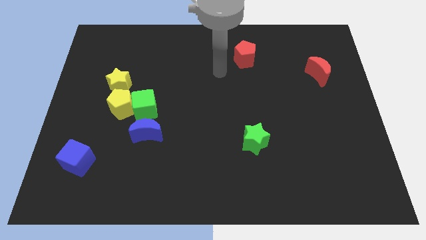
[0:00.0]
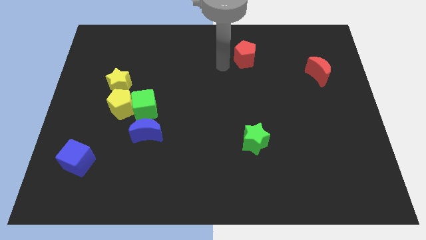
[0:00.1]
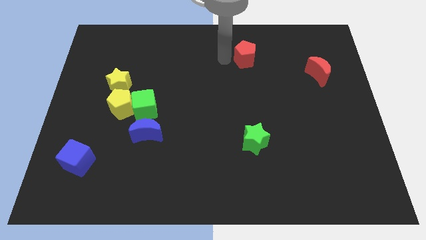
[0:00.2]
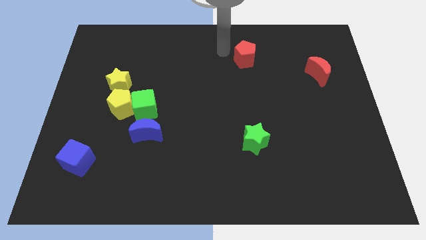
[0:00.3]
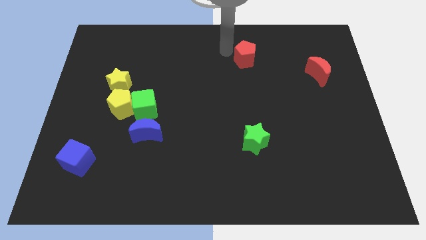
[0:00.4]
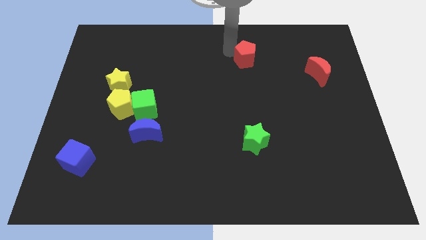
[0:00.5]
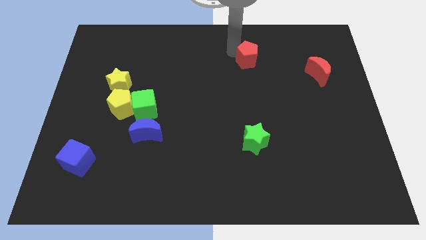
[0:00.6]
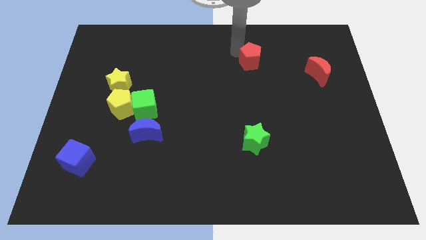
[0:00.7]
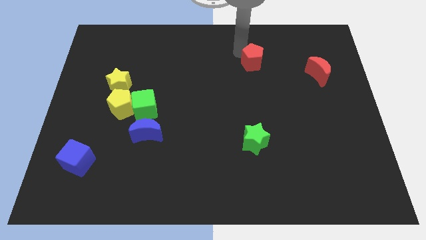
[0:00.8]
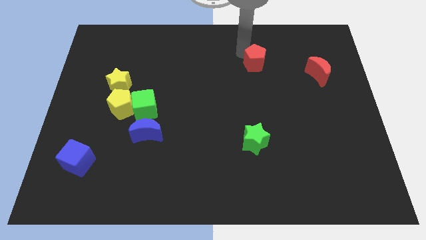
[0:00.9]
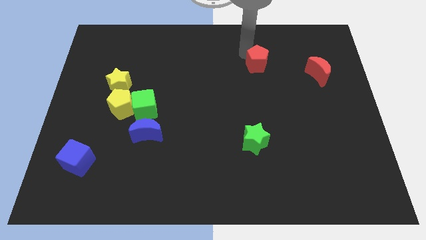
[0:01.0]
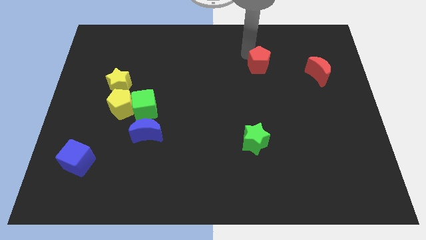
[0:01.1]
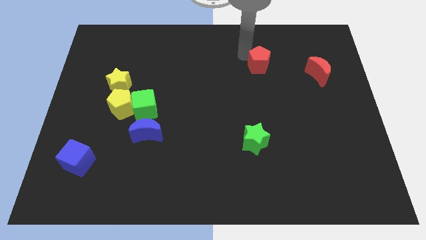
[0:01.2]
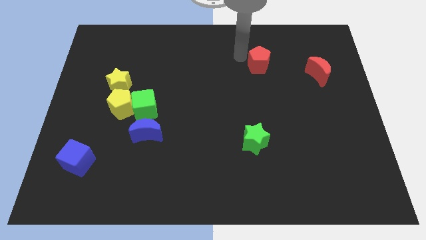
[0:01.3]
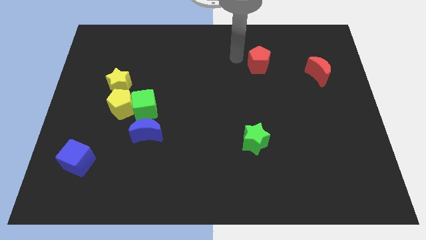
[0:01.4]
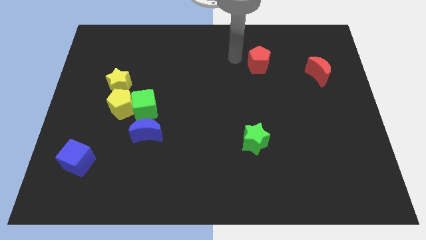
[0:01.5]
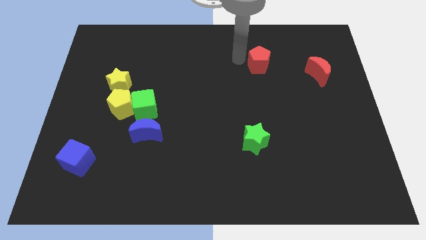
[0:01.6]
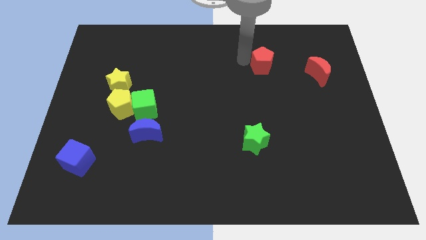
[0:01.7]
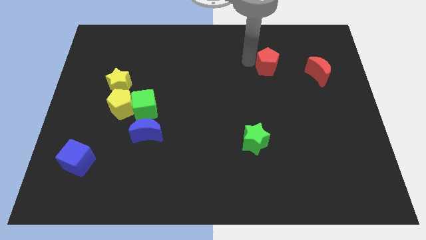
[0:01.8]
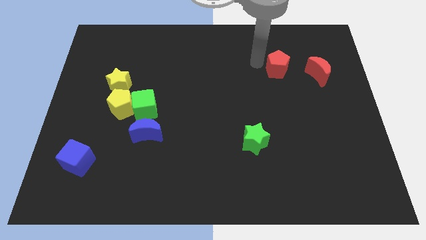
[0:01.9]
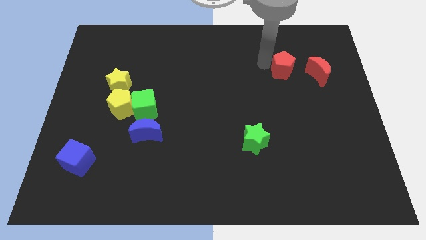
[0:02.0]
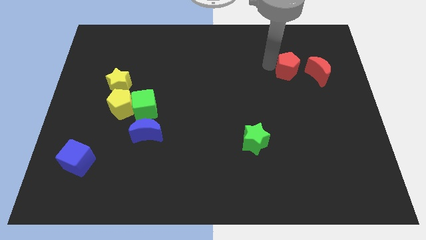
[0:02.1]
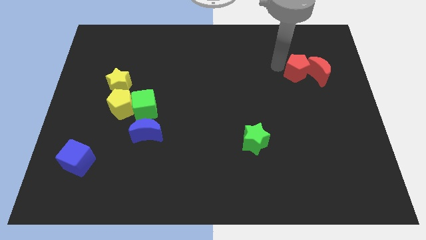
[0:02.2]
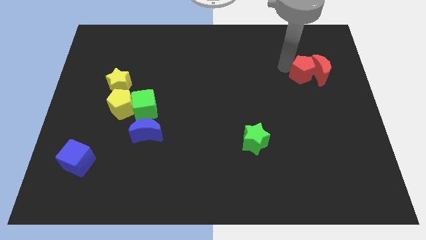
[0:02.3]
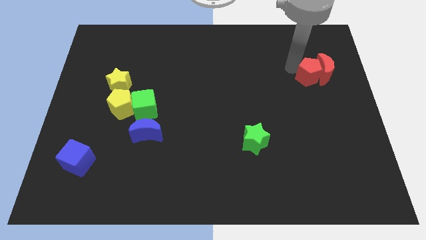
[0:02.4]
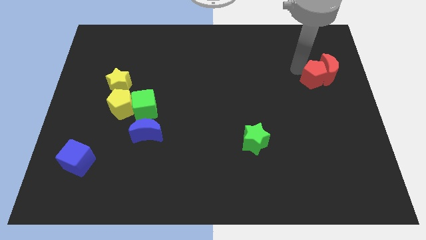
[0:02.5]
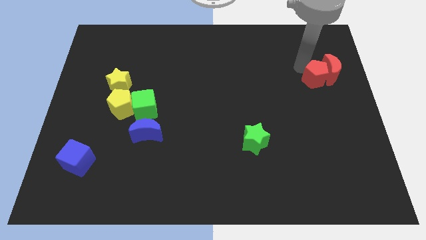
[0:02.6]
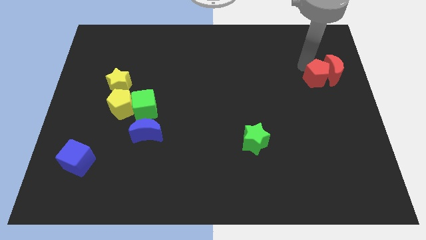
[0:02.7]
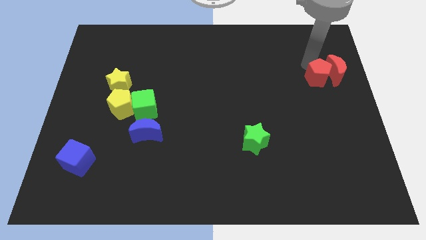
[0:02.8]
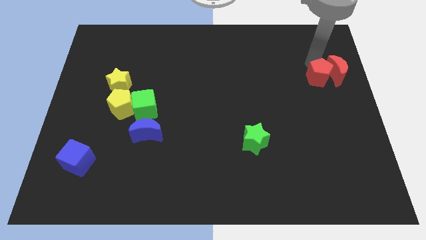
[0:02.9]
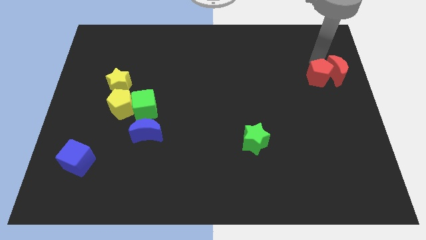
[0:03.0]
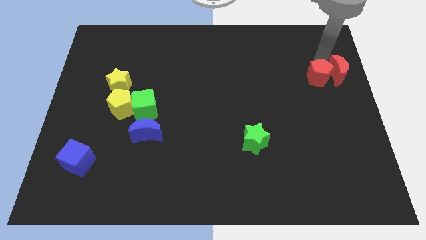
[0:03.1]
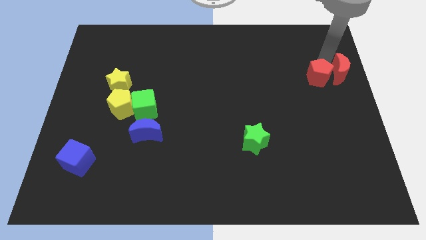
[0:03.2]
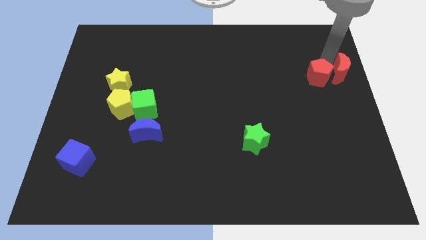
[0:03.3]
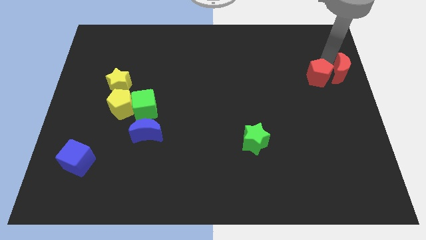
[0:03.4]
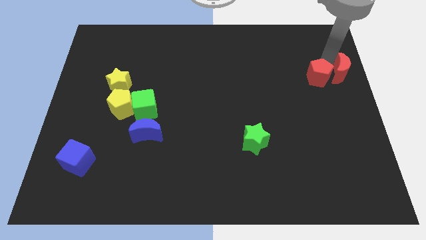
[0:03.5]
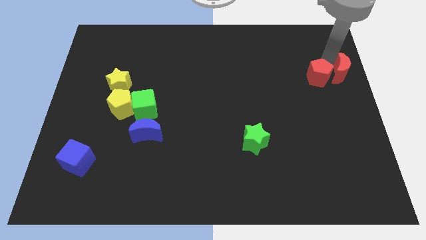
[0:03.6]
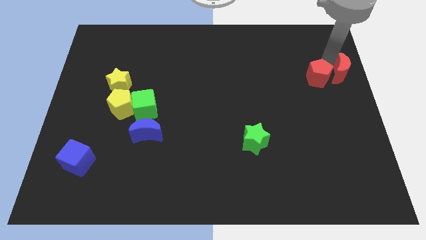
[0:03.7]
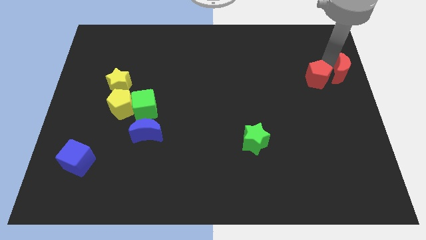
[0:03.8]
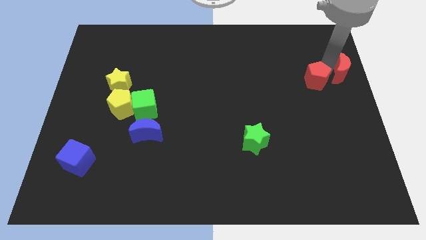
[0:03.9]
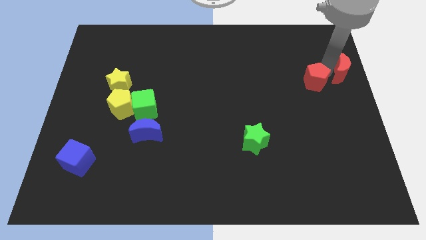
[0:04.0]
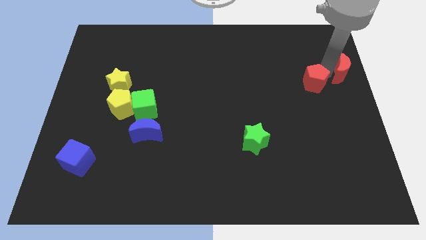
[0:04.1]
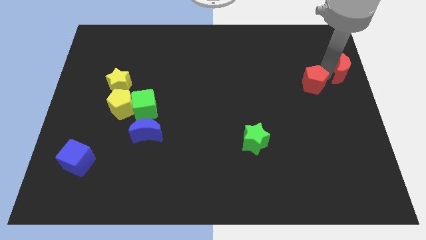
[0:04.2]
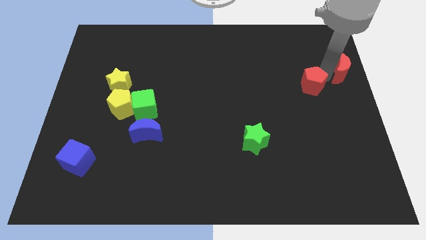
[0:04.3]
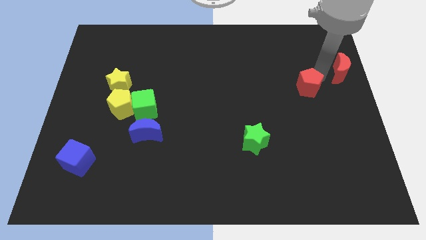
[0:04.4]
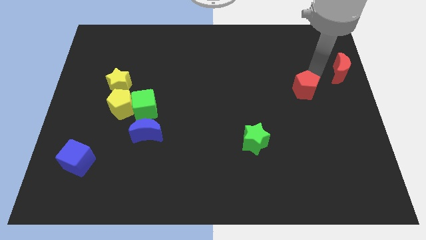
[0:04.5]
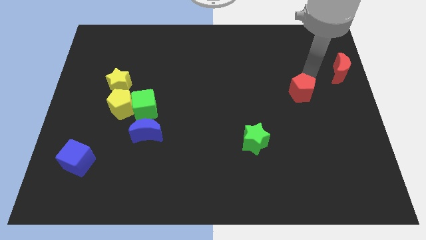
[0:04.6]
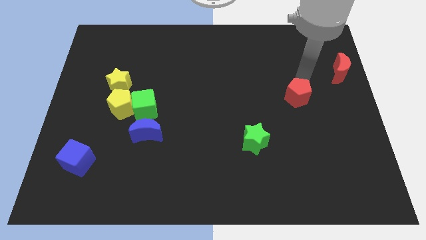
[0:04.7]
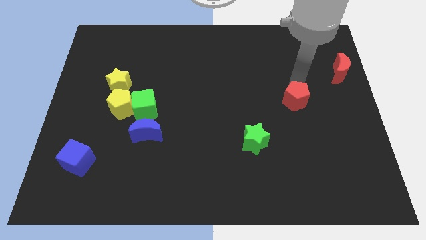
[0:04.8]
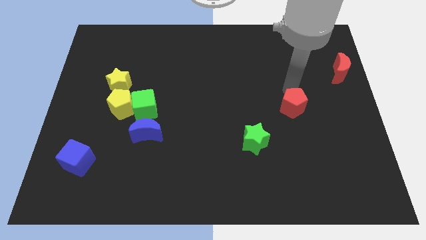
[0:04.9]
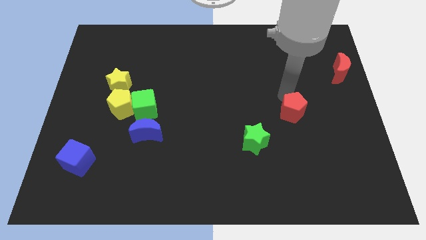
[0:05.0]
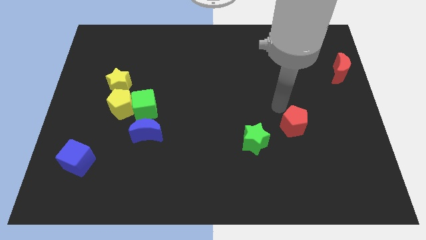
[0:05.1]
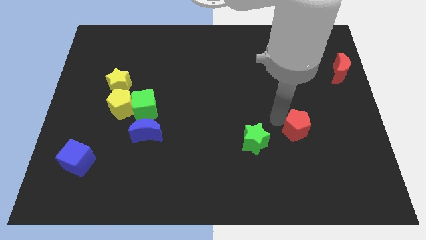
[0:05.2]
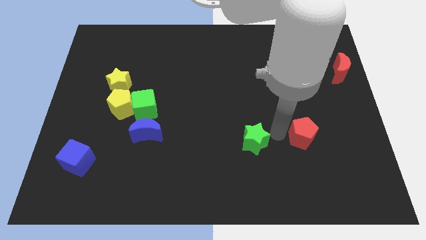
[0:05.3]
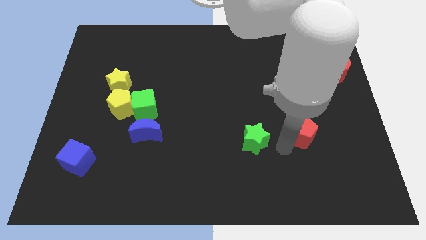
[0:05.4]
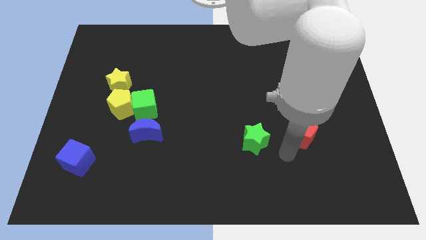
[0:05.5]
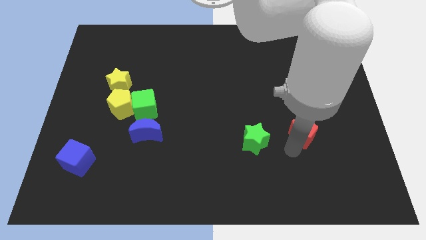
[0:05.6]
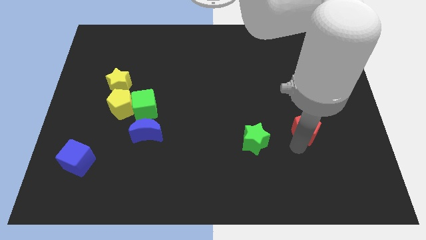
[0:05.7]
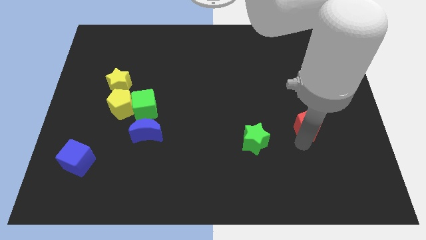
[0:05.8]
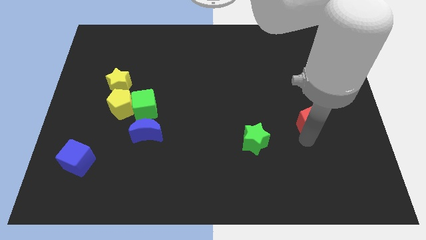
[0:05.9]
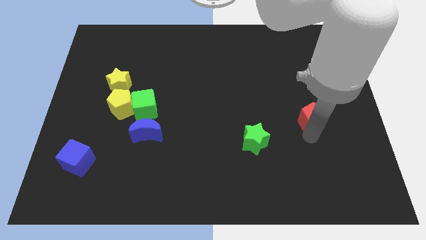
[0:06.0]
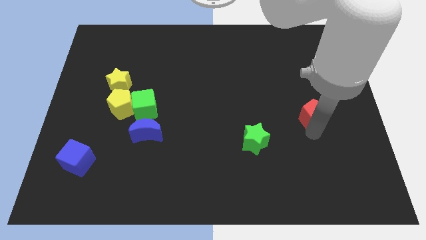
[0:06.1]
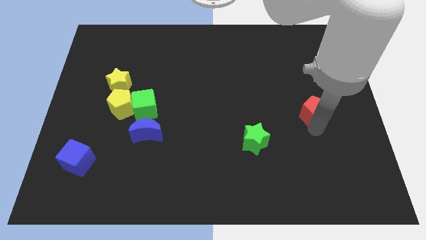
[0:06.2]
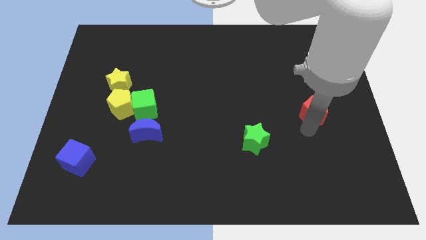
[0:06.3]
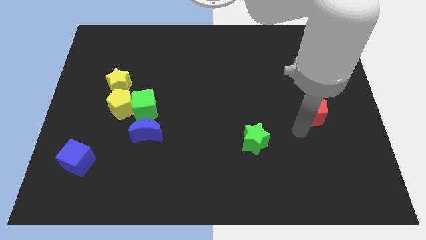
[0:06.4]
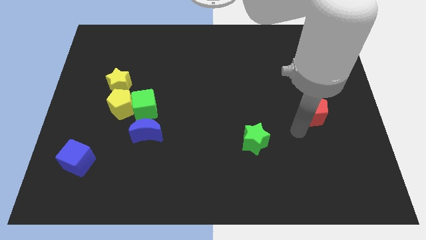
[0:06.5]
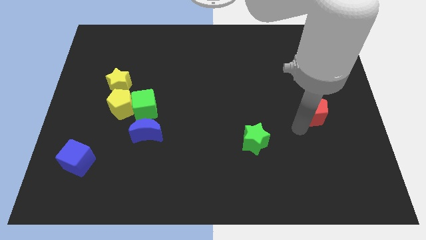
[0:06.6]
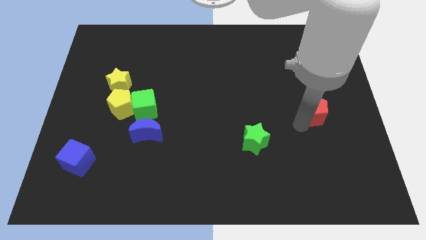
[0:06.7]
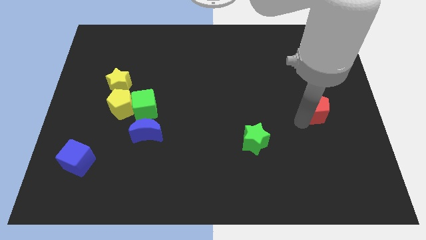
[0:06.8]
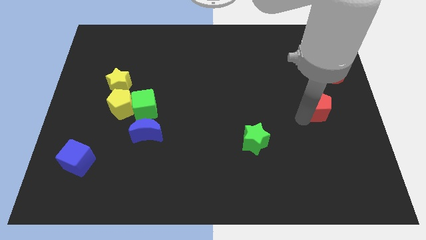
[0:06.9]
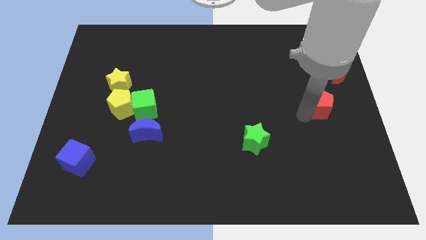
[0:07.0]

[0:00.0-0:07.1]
put the red pentagon to the right side
